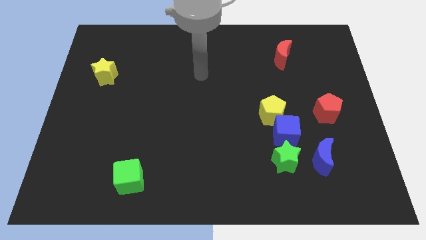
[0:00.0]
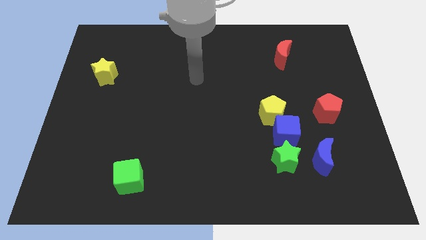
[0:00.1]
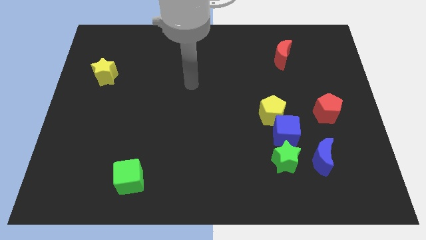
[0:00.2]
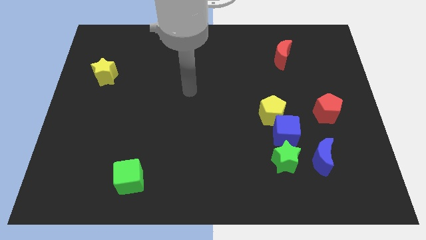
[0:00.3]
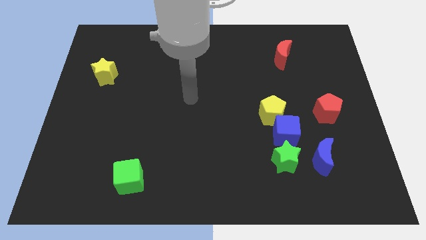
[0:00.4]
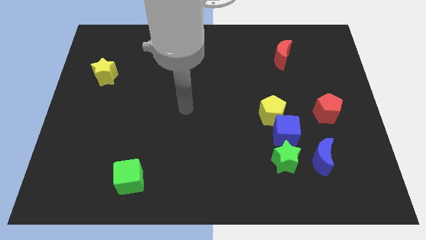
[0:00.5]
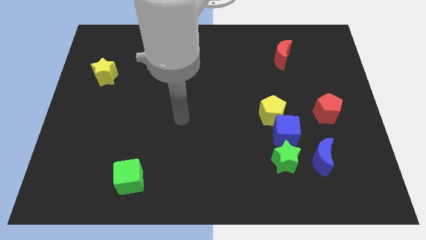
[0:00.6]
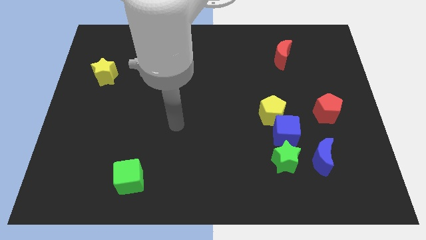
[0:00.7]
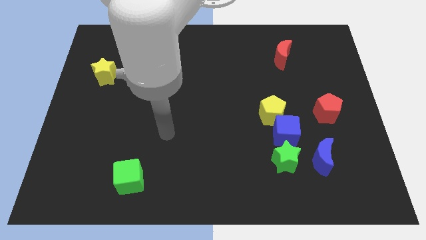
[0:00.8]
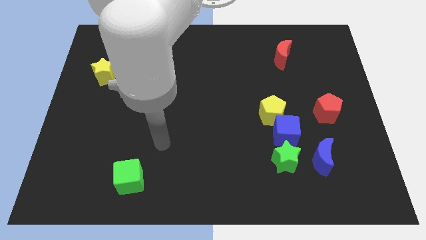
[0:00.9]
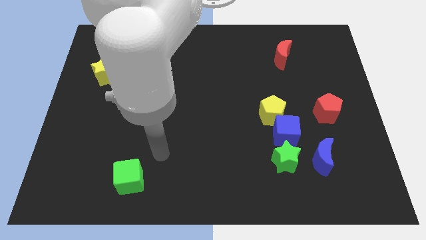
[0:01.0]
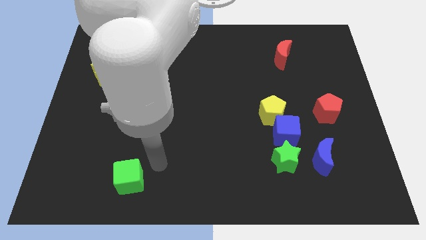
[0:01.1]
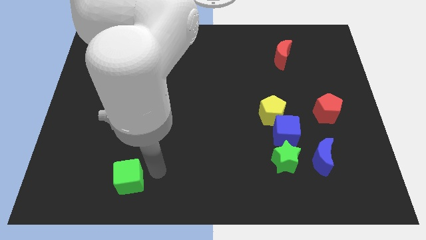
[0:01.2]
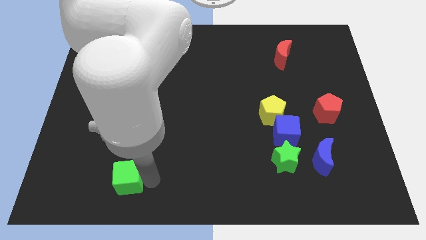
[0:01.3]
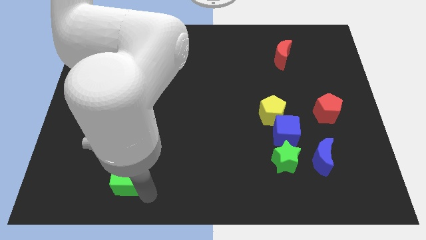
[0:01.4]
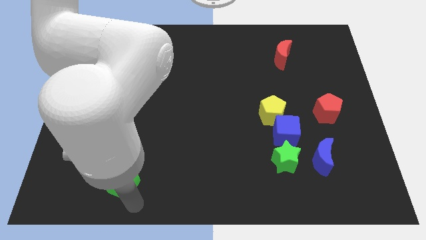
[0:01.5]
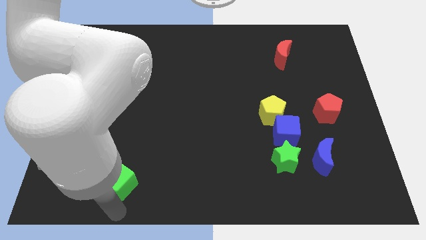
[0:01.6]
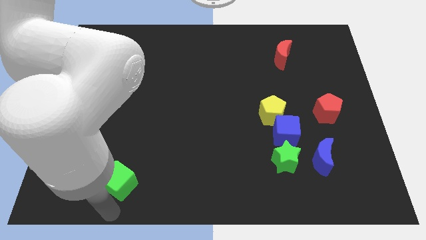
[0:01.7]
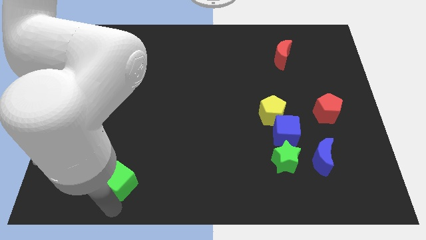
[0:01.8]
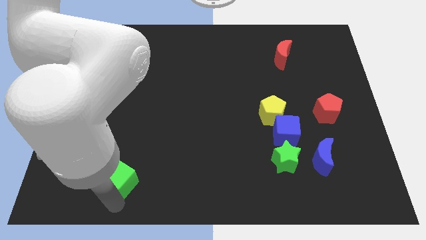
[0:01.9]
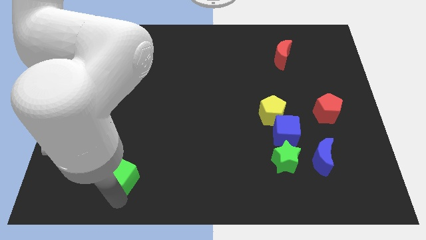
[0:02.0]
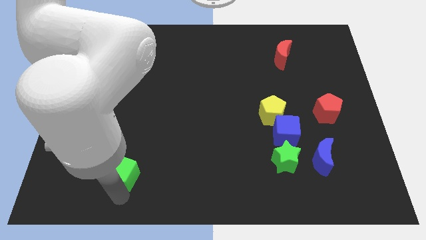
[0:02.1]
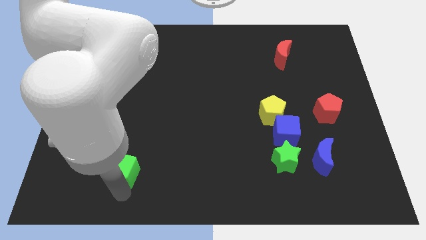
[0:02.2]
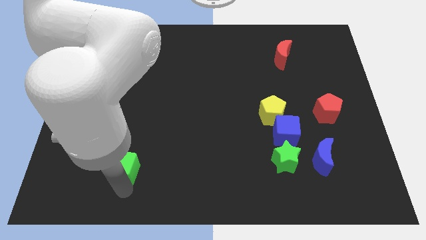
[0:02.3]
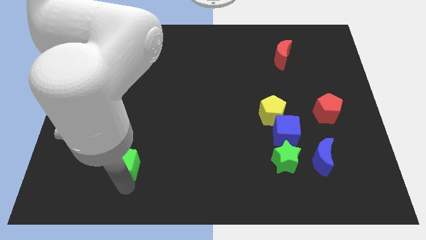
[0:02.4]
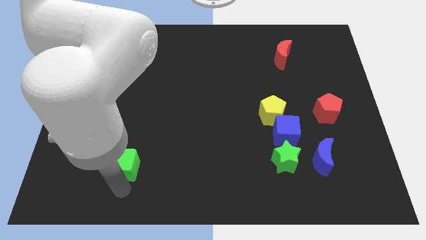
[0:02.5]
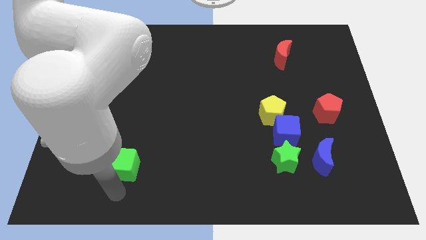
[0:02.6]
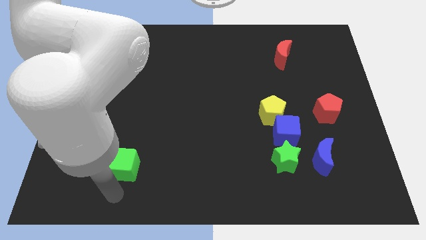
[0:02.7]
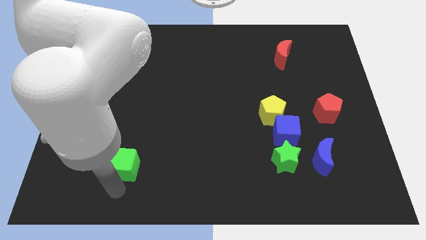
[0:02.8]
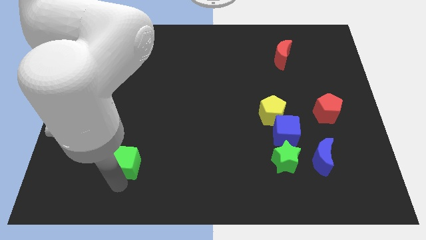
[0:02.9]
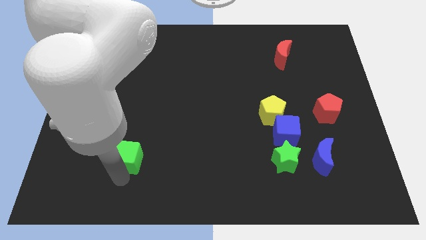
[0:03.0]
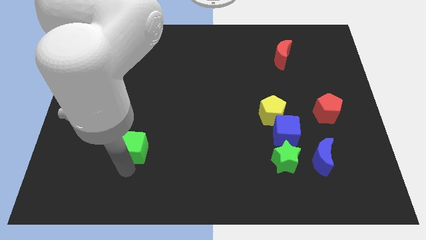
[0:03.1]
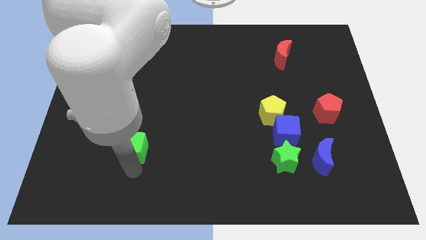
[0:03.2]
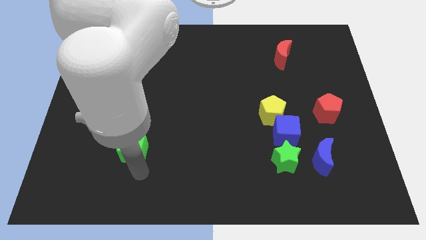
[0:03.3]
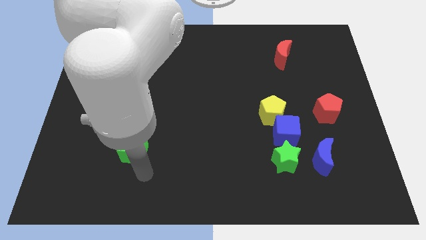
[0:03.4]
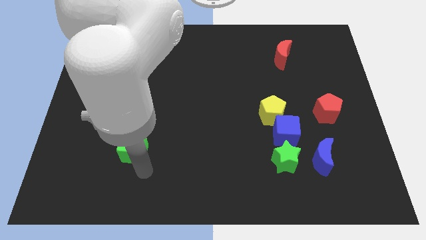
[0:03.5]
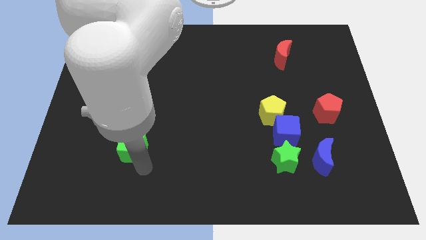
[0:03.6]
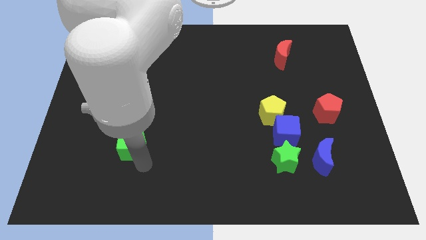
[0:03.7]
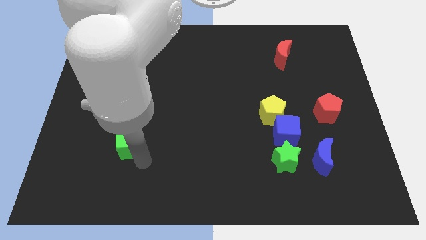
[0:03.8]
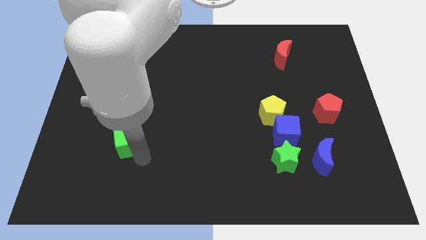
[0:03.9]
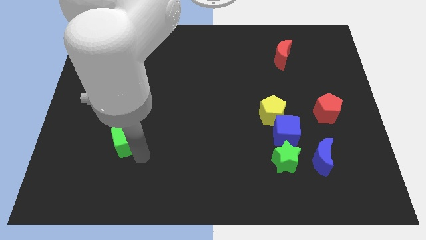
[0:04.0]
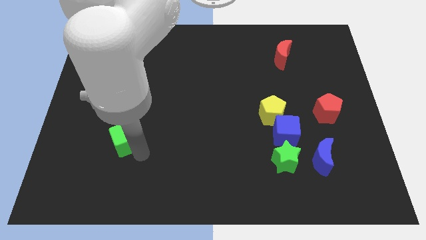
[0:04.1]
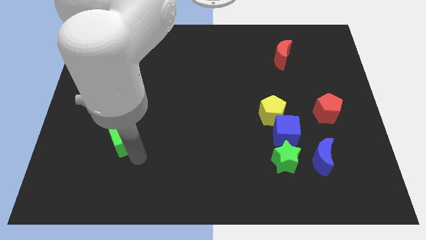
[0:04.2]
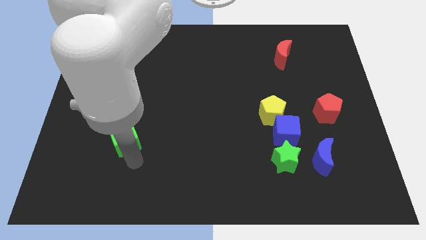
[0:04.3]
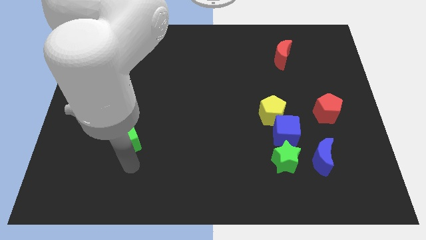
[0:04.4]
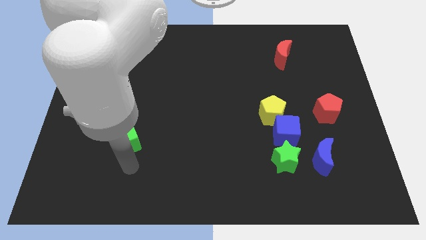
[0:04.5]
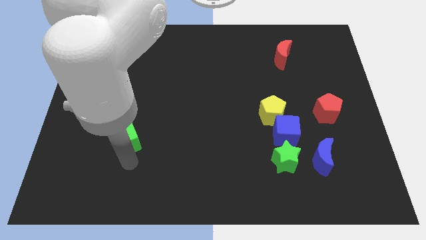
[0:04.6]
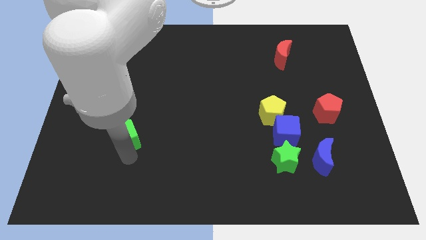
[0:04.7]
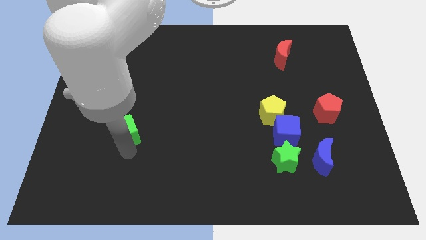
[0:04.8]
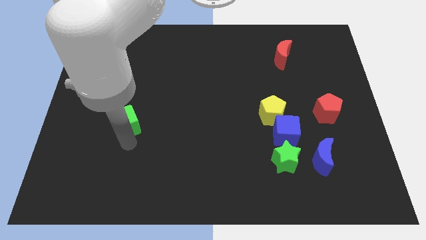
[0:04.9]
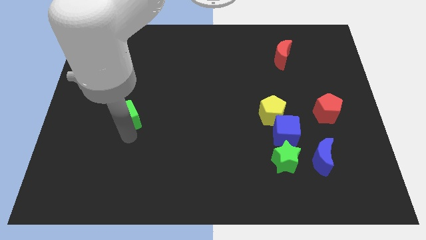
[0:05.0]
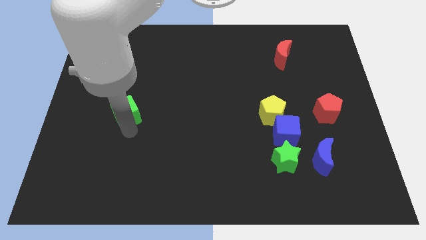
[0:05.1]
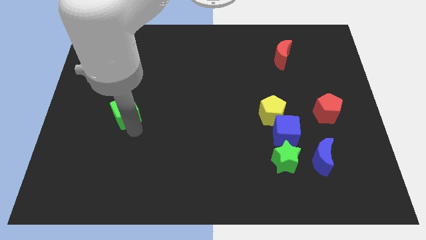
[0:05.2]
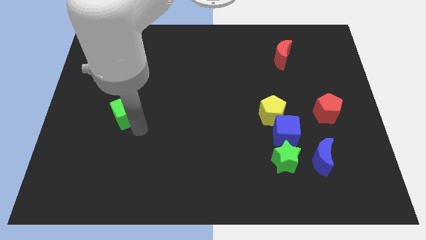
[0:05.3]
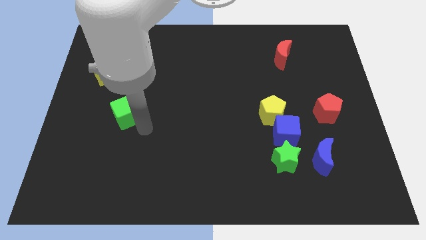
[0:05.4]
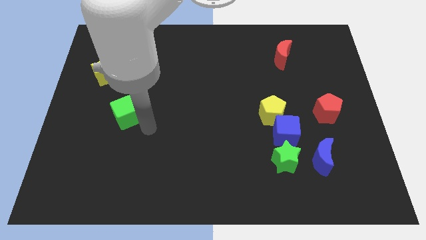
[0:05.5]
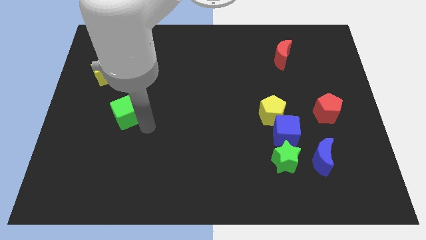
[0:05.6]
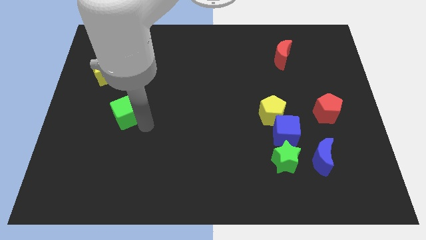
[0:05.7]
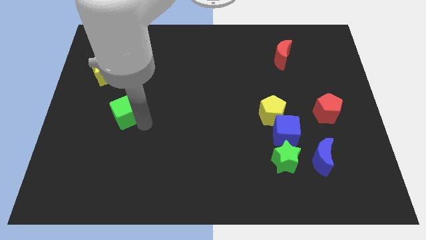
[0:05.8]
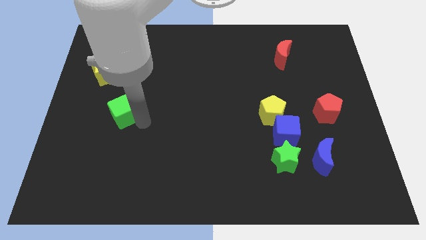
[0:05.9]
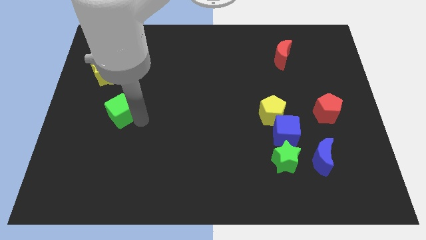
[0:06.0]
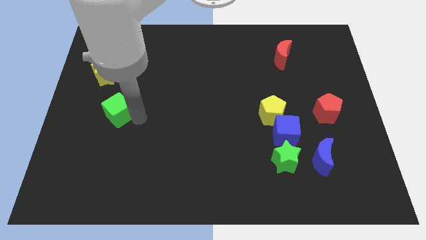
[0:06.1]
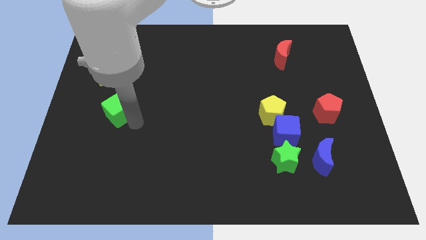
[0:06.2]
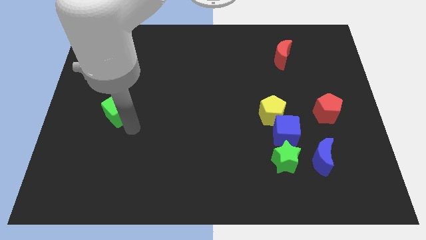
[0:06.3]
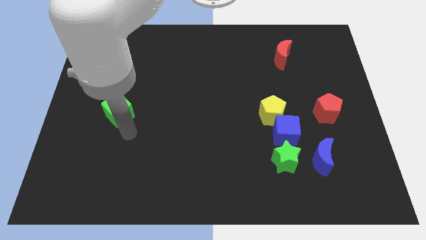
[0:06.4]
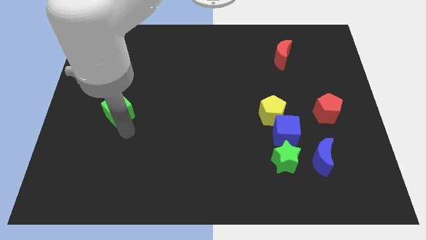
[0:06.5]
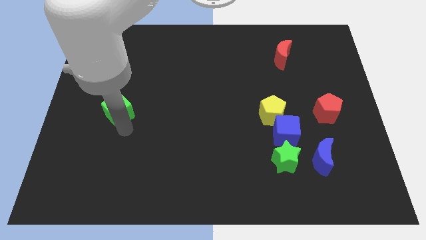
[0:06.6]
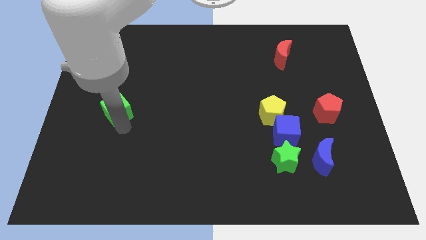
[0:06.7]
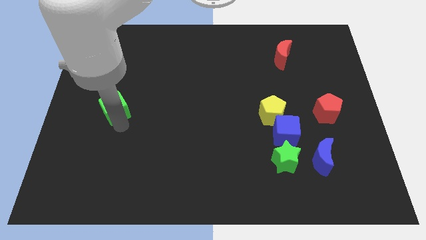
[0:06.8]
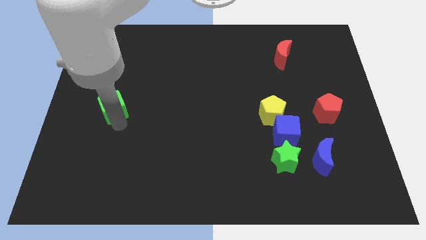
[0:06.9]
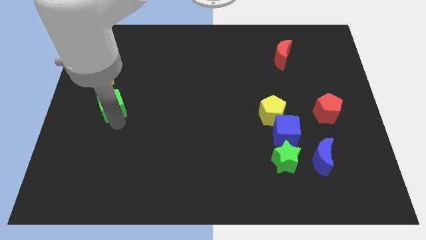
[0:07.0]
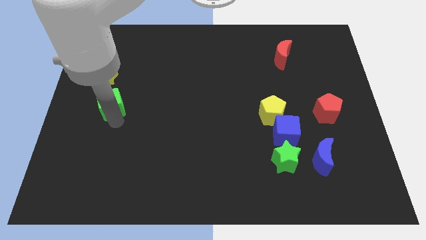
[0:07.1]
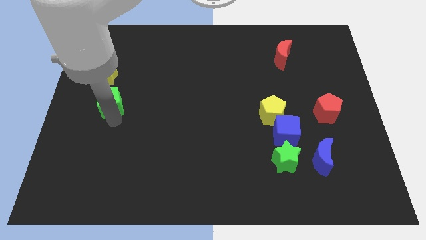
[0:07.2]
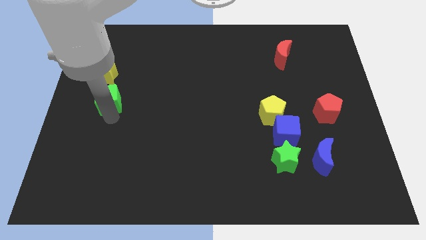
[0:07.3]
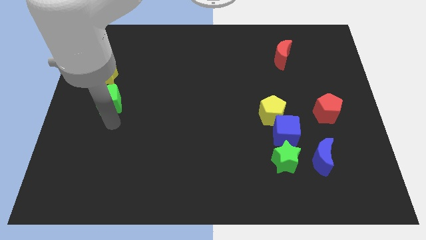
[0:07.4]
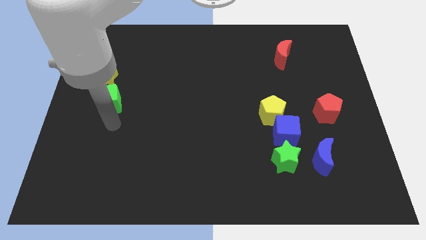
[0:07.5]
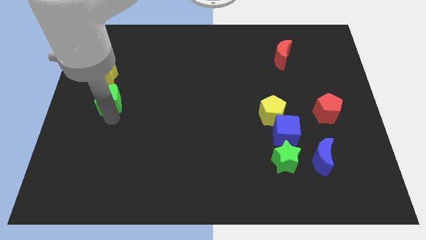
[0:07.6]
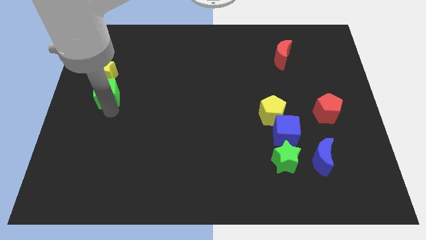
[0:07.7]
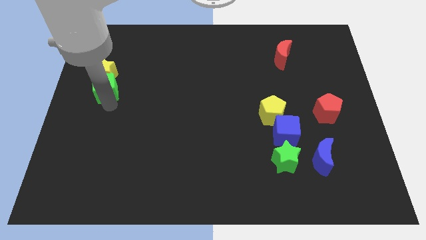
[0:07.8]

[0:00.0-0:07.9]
push the green cube close to the yellow star
